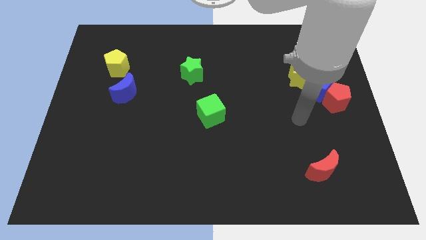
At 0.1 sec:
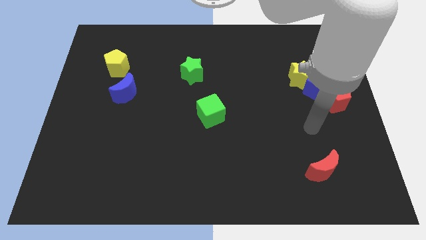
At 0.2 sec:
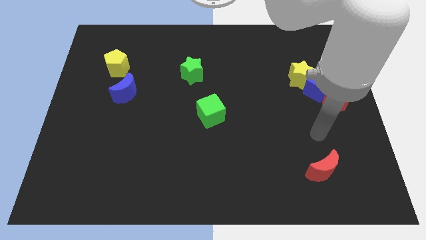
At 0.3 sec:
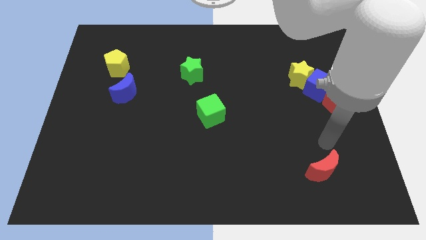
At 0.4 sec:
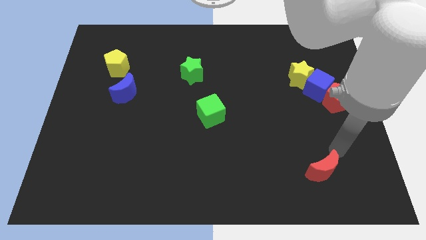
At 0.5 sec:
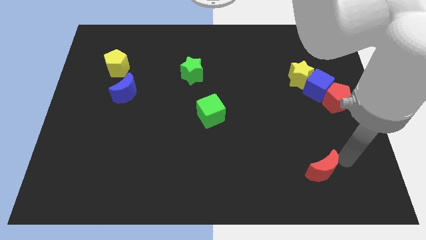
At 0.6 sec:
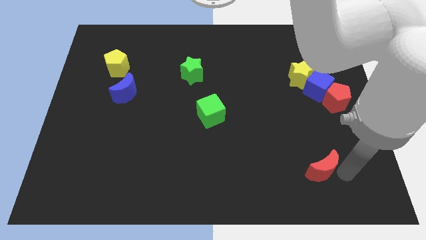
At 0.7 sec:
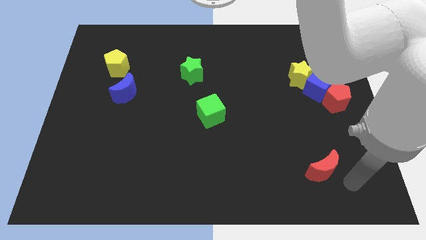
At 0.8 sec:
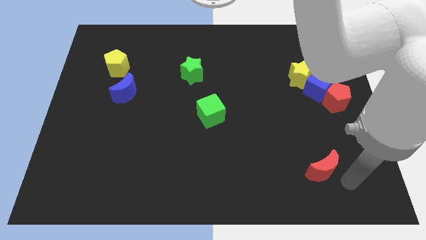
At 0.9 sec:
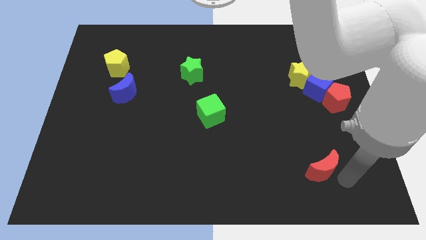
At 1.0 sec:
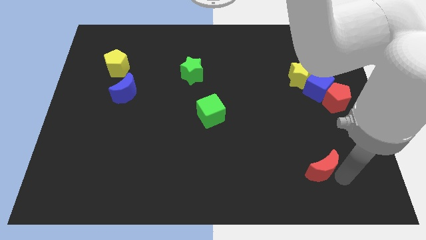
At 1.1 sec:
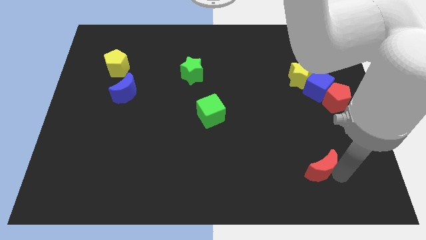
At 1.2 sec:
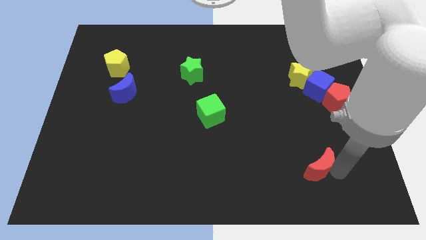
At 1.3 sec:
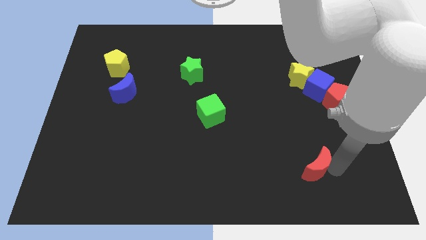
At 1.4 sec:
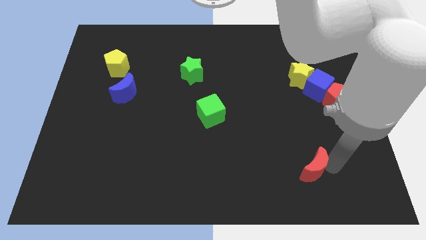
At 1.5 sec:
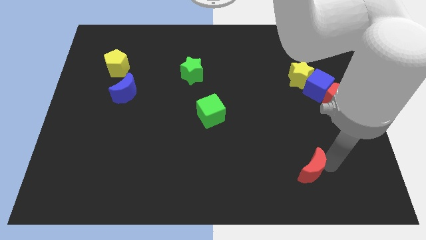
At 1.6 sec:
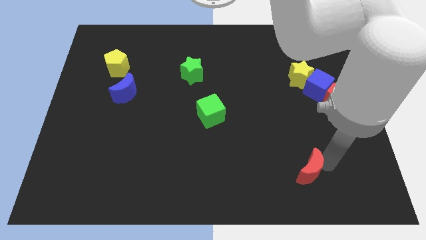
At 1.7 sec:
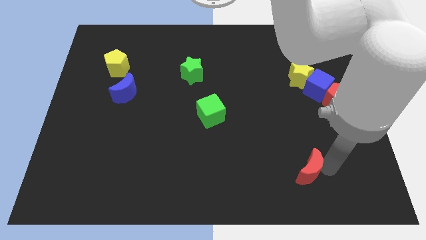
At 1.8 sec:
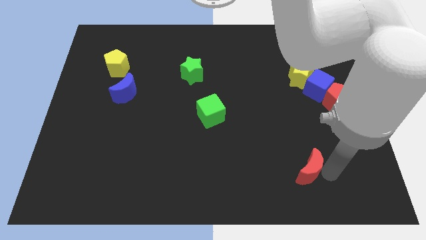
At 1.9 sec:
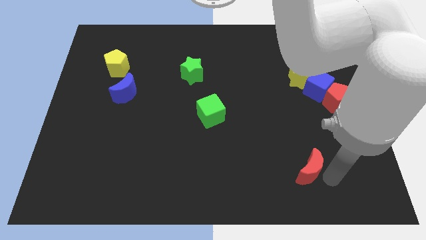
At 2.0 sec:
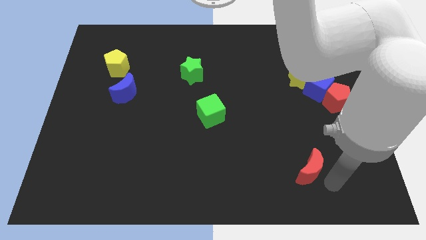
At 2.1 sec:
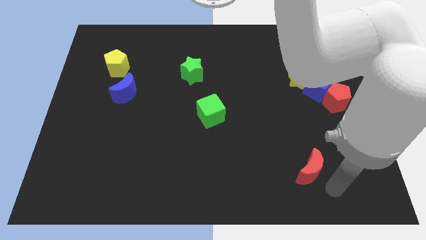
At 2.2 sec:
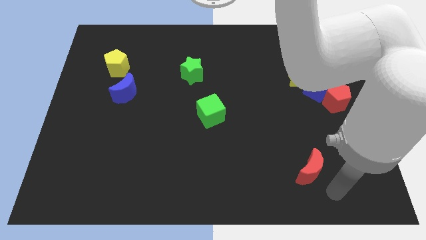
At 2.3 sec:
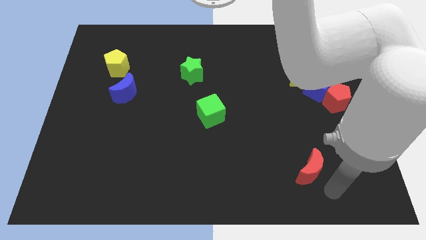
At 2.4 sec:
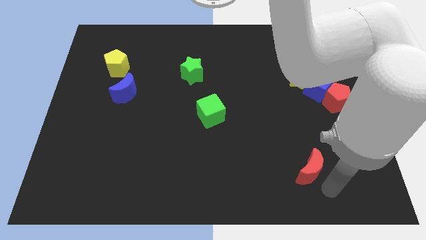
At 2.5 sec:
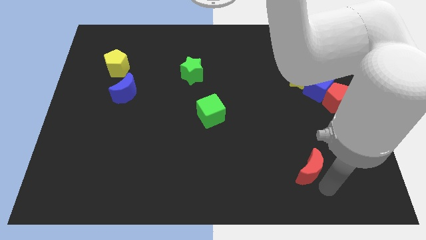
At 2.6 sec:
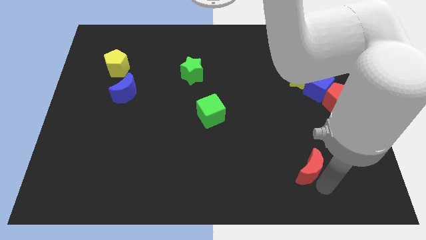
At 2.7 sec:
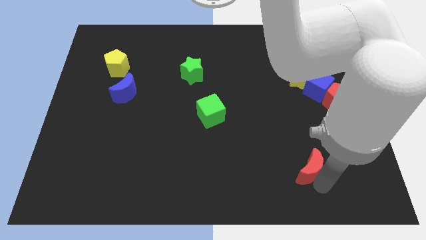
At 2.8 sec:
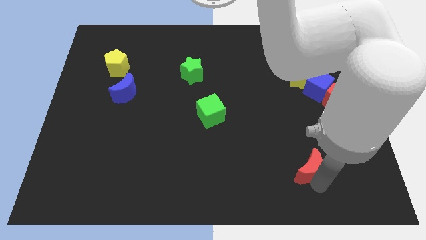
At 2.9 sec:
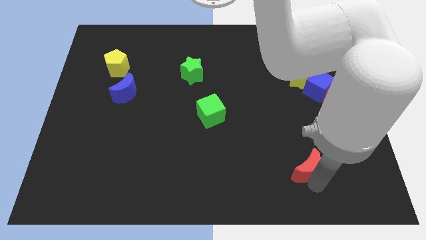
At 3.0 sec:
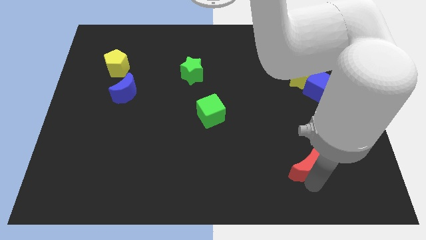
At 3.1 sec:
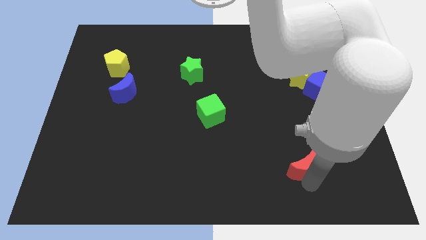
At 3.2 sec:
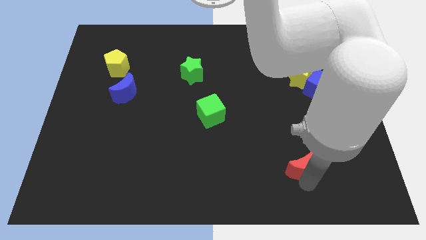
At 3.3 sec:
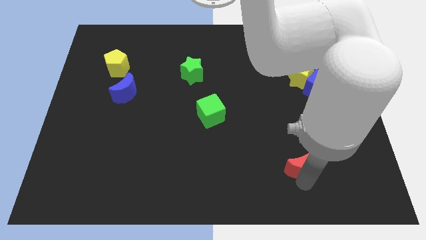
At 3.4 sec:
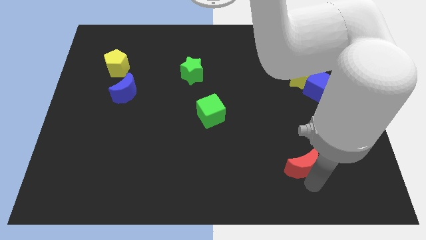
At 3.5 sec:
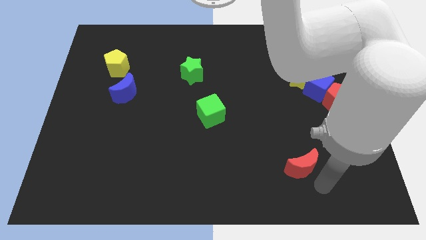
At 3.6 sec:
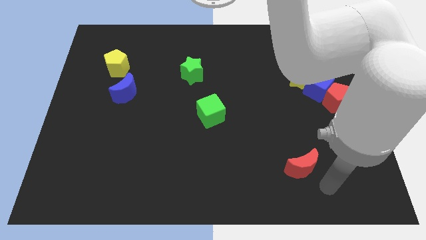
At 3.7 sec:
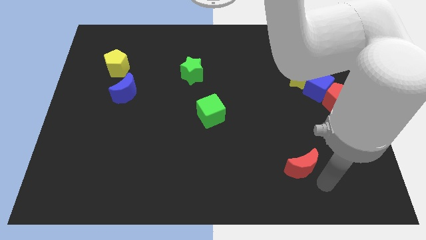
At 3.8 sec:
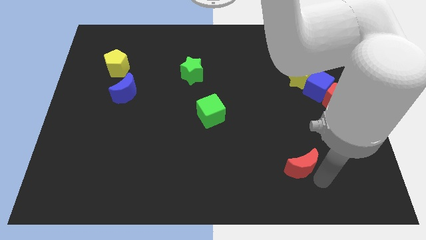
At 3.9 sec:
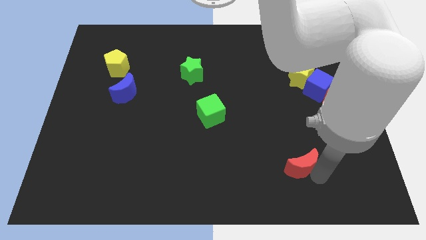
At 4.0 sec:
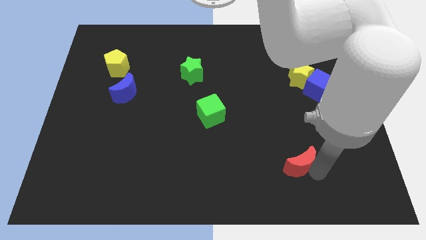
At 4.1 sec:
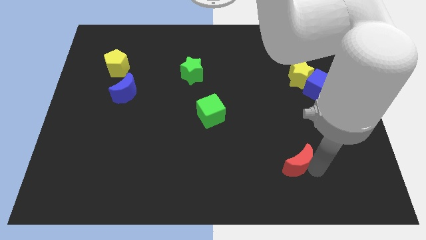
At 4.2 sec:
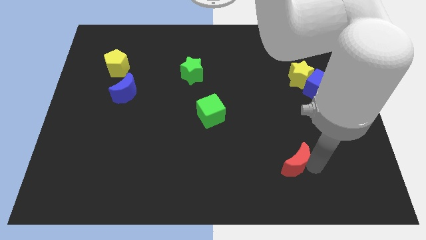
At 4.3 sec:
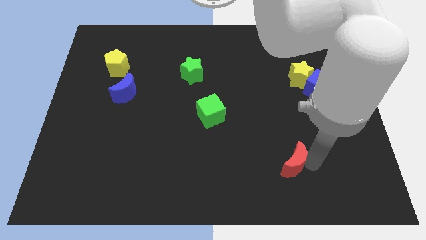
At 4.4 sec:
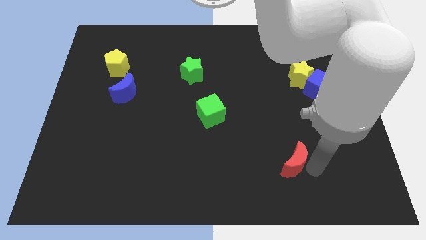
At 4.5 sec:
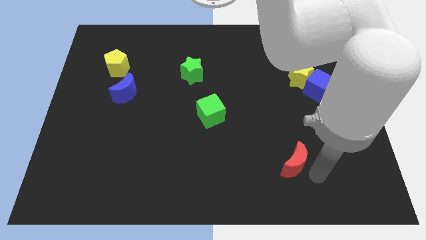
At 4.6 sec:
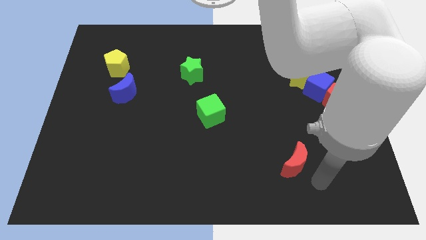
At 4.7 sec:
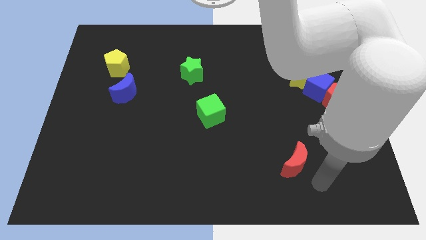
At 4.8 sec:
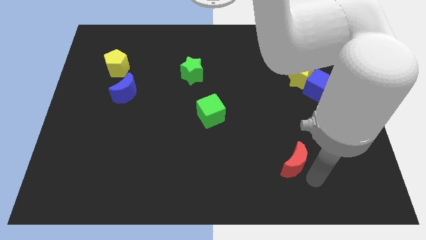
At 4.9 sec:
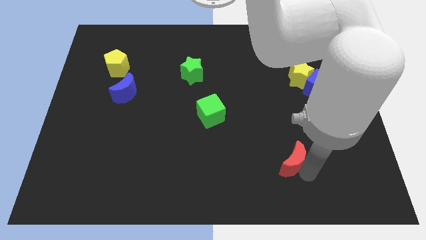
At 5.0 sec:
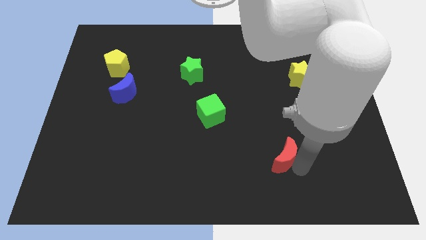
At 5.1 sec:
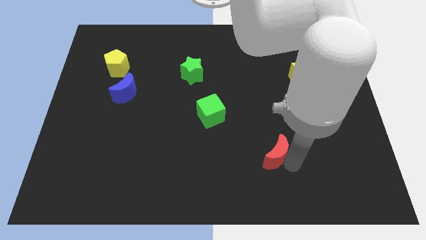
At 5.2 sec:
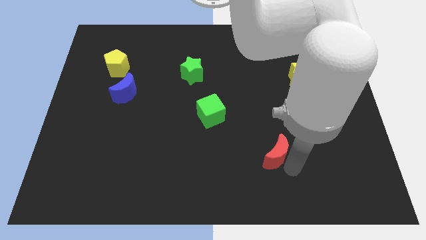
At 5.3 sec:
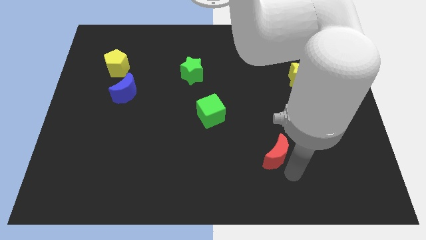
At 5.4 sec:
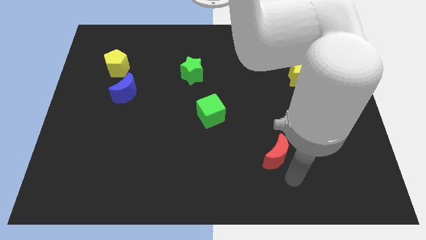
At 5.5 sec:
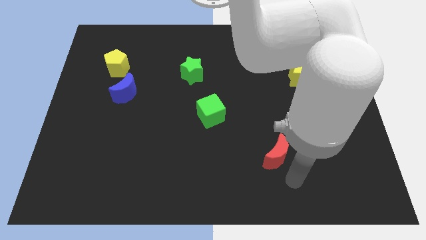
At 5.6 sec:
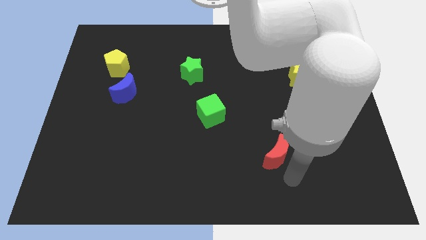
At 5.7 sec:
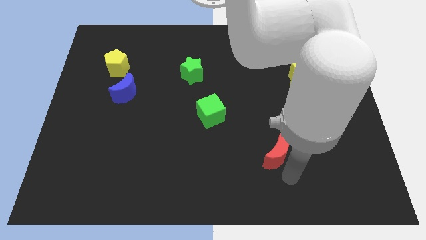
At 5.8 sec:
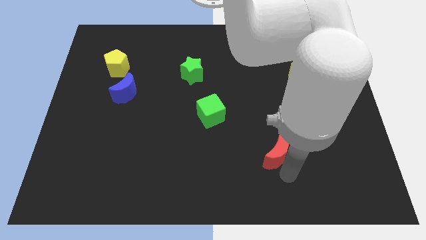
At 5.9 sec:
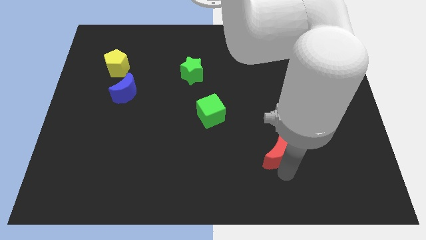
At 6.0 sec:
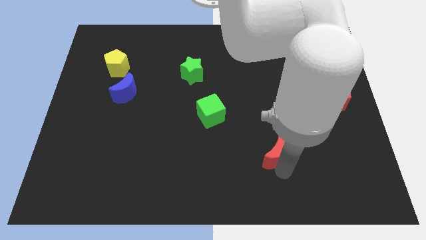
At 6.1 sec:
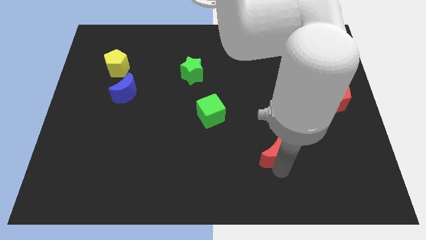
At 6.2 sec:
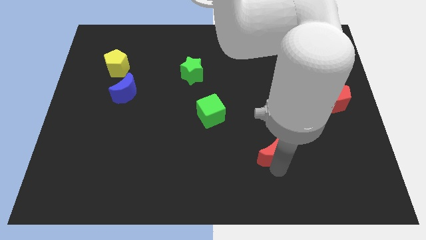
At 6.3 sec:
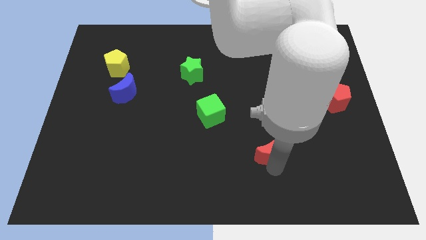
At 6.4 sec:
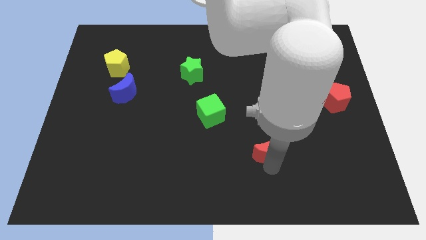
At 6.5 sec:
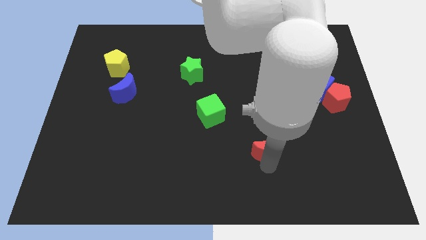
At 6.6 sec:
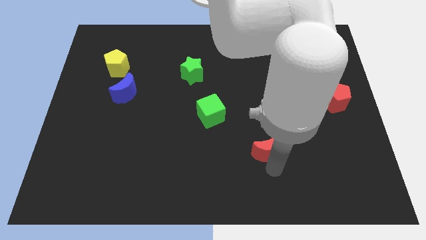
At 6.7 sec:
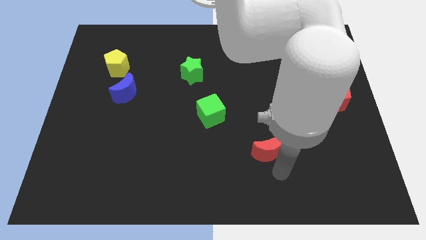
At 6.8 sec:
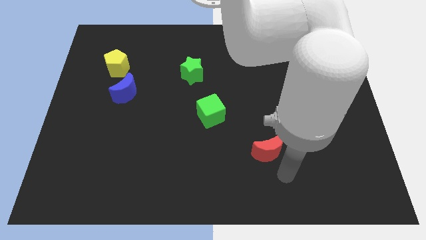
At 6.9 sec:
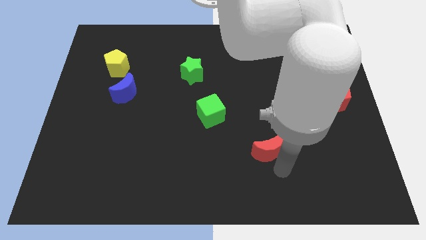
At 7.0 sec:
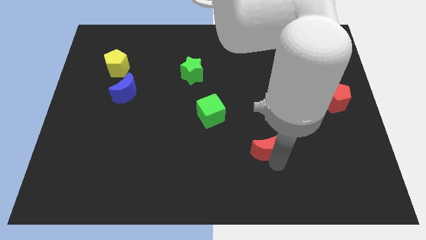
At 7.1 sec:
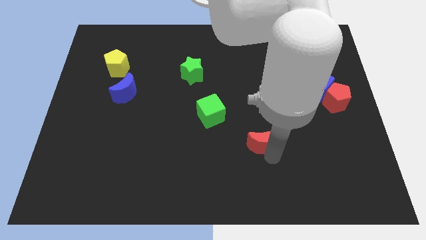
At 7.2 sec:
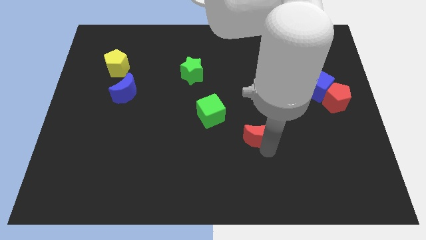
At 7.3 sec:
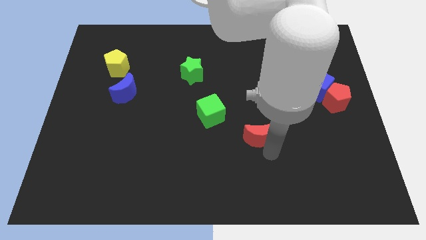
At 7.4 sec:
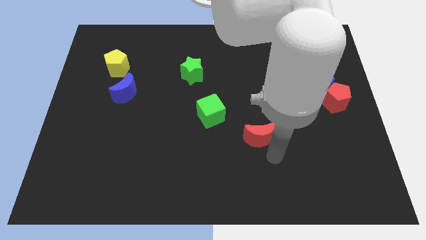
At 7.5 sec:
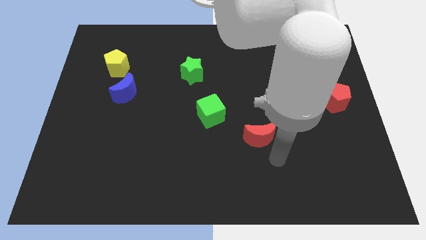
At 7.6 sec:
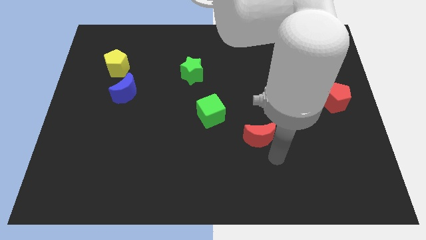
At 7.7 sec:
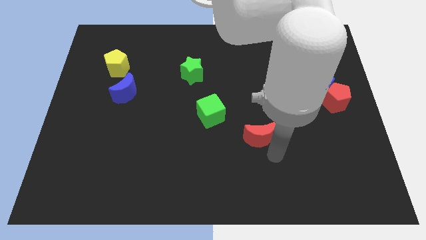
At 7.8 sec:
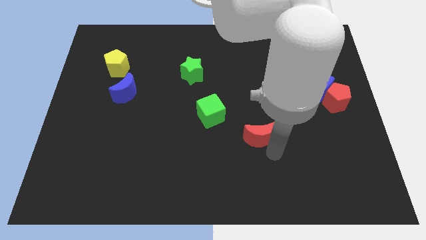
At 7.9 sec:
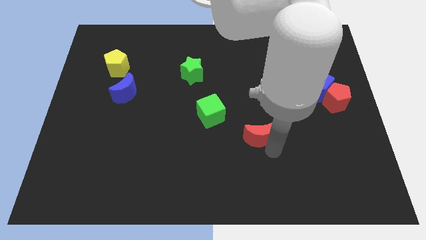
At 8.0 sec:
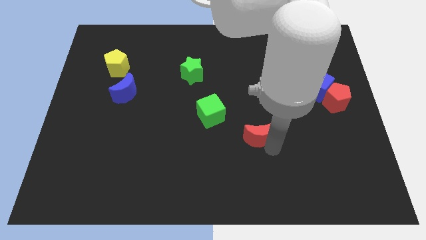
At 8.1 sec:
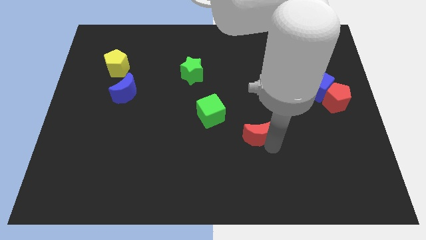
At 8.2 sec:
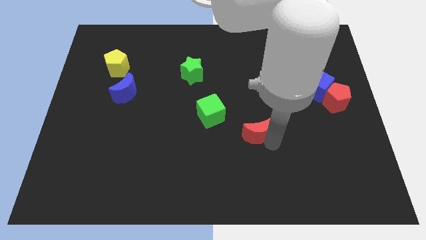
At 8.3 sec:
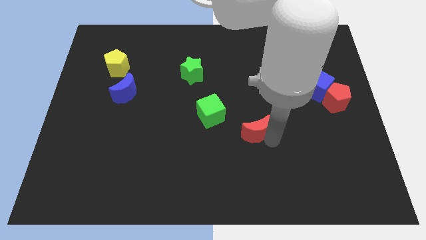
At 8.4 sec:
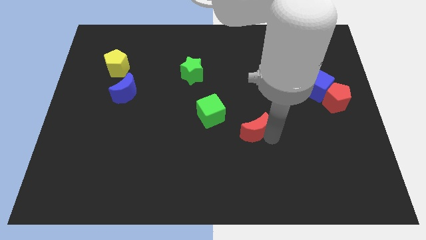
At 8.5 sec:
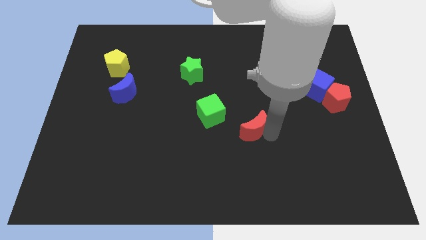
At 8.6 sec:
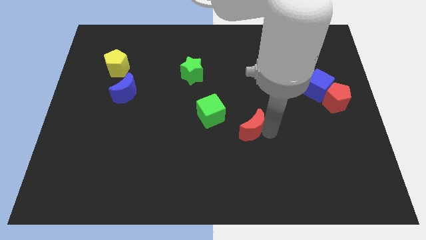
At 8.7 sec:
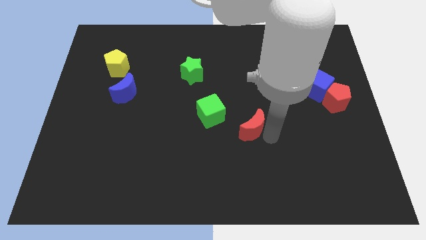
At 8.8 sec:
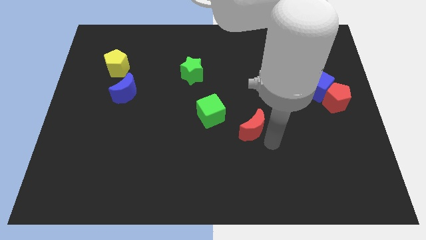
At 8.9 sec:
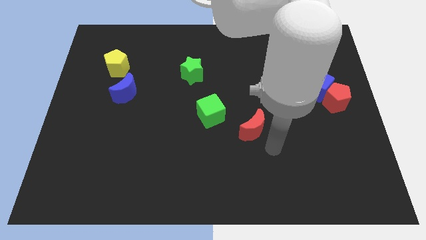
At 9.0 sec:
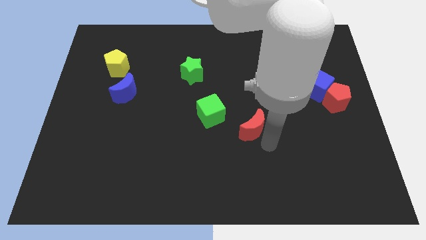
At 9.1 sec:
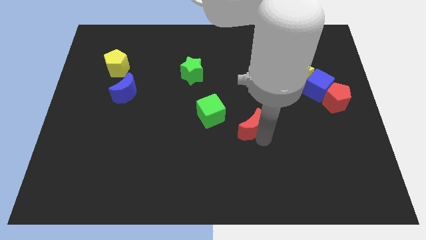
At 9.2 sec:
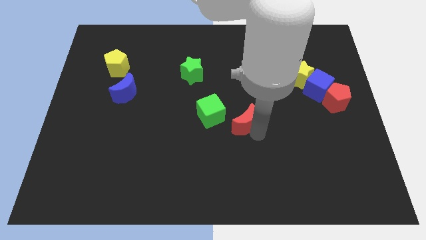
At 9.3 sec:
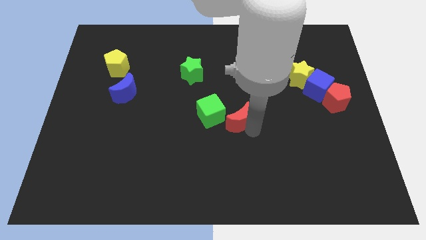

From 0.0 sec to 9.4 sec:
move the red moon up and then left
